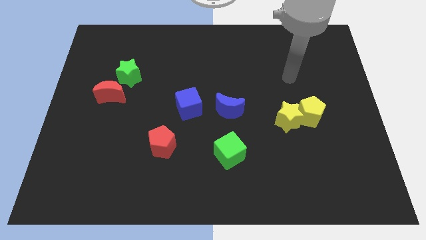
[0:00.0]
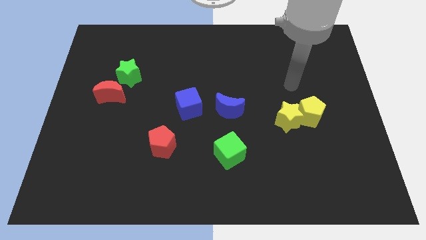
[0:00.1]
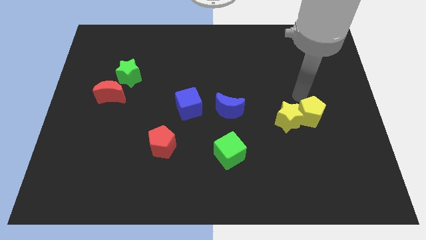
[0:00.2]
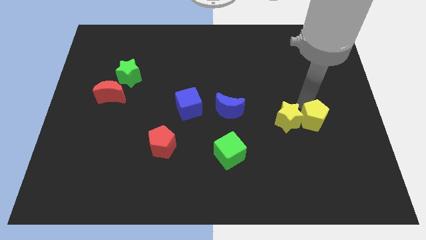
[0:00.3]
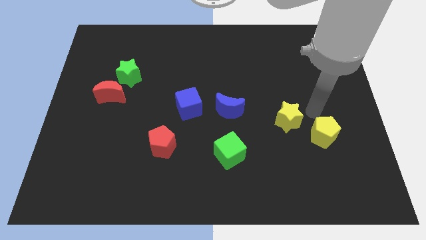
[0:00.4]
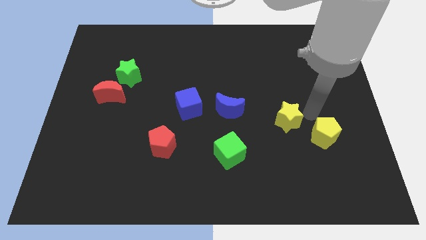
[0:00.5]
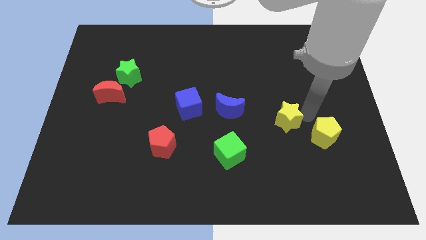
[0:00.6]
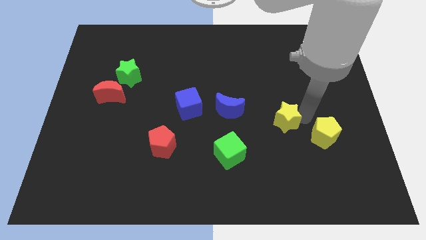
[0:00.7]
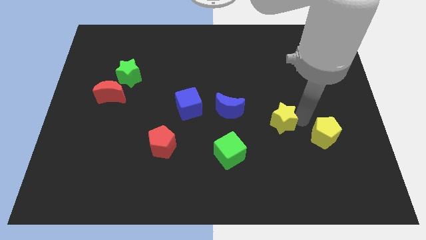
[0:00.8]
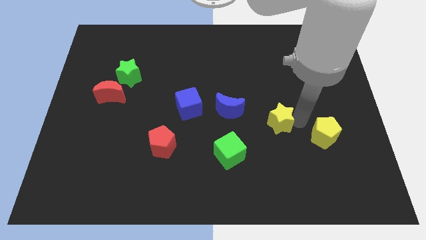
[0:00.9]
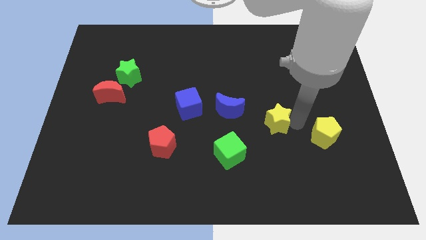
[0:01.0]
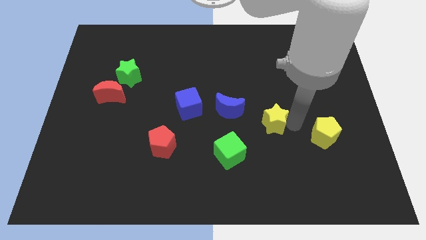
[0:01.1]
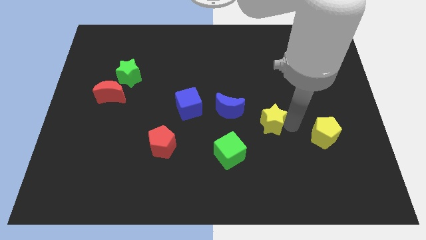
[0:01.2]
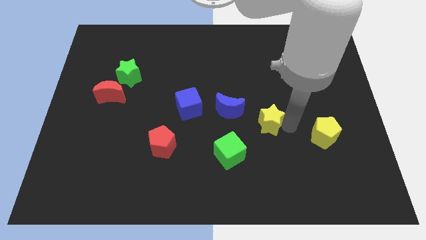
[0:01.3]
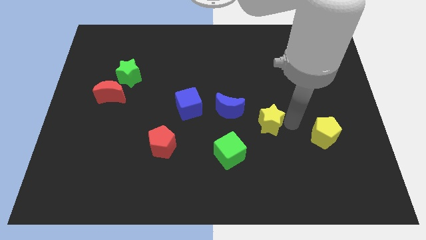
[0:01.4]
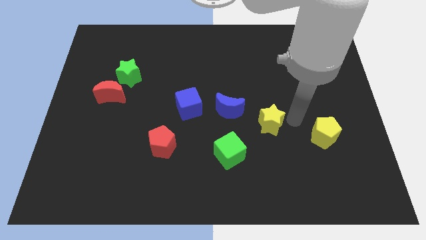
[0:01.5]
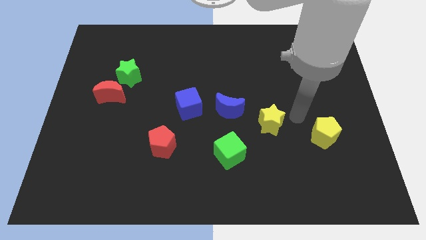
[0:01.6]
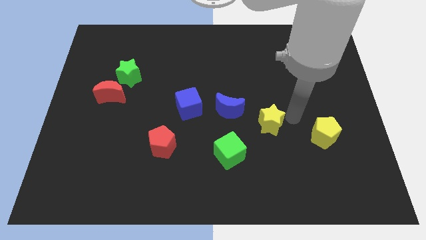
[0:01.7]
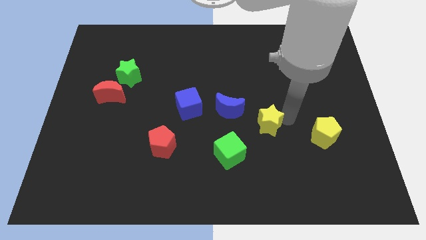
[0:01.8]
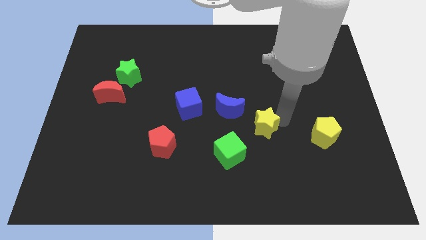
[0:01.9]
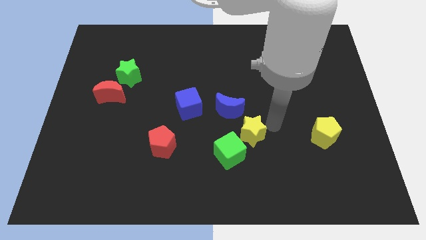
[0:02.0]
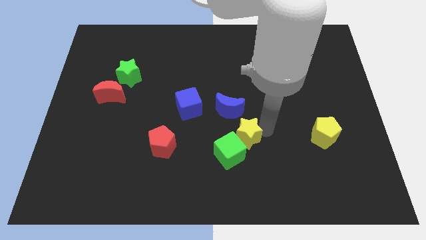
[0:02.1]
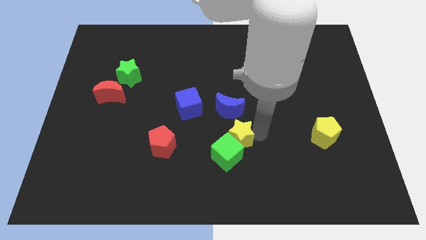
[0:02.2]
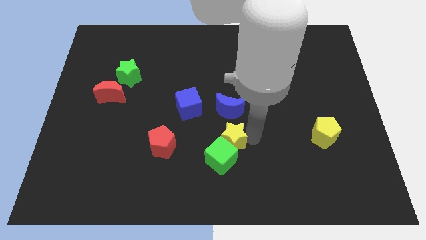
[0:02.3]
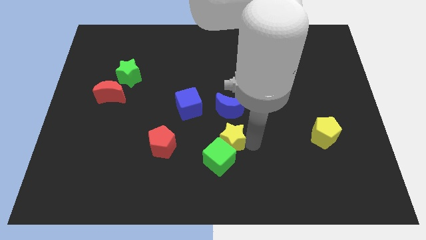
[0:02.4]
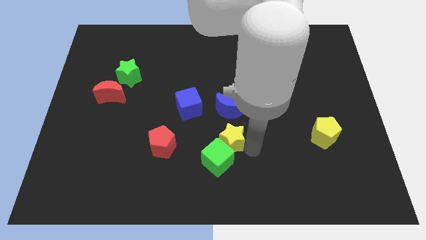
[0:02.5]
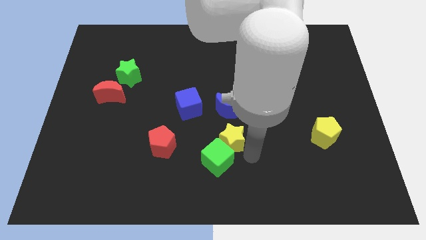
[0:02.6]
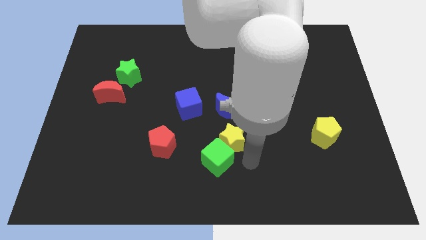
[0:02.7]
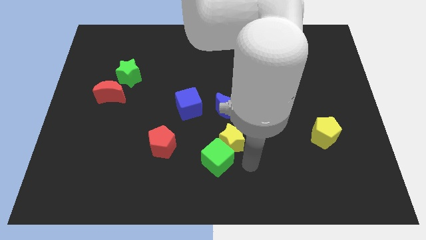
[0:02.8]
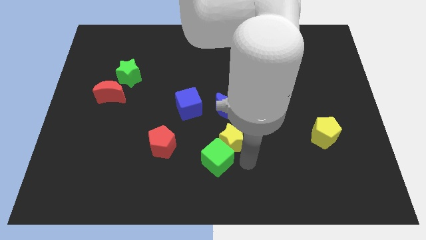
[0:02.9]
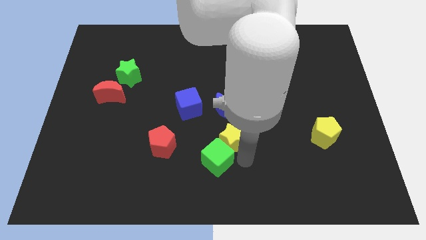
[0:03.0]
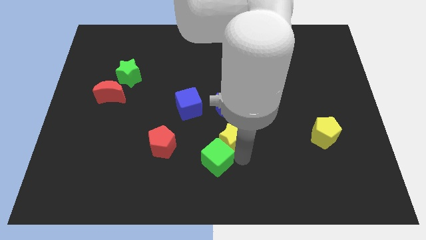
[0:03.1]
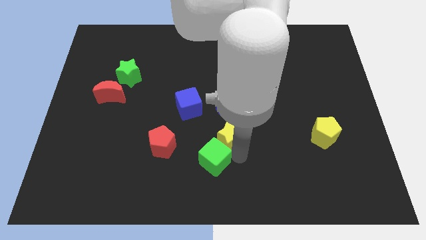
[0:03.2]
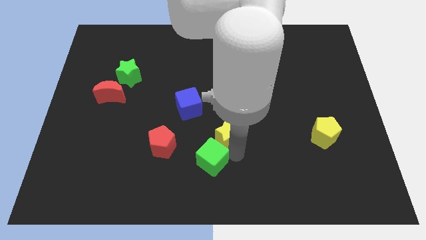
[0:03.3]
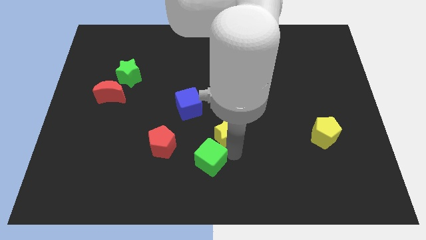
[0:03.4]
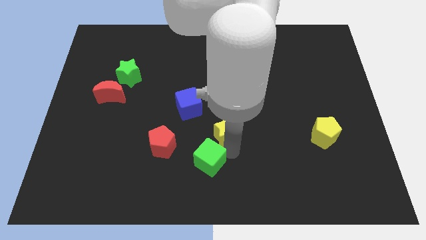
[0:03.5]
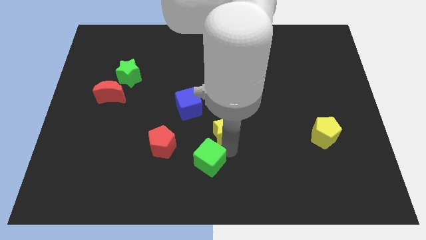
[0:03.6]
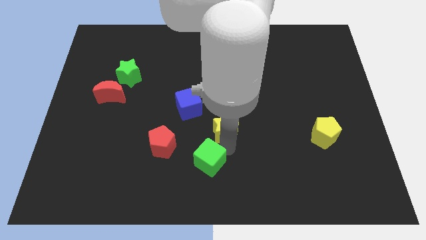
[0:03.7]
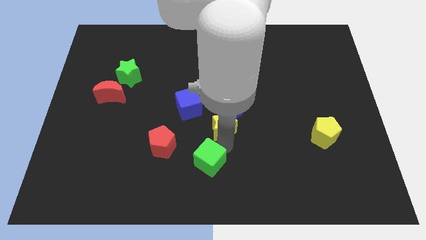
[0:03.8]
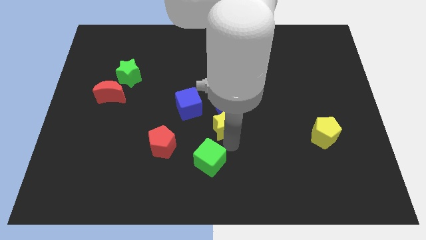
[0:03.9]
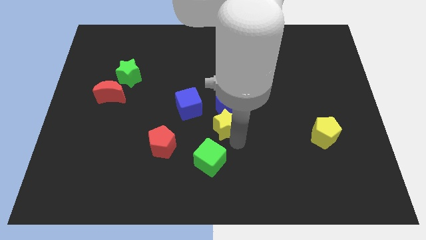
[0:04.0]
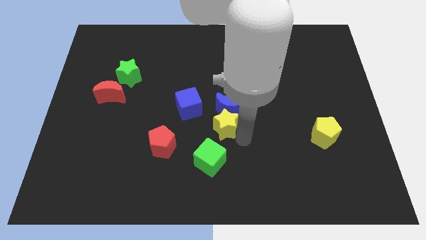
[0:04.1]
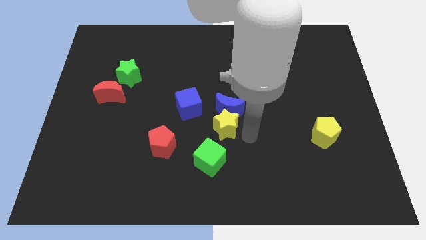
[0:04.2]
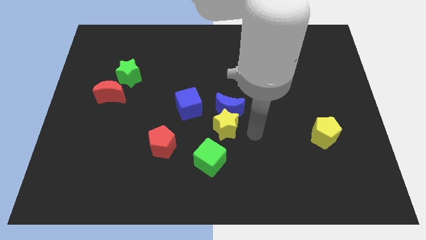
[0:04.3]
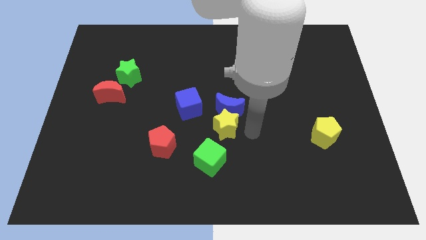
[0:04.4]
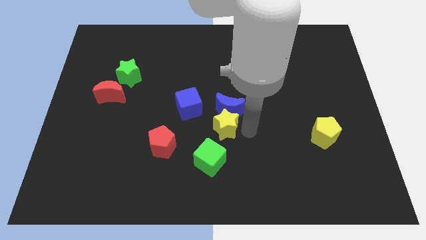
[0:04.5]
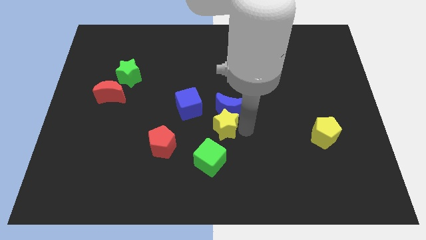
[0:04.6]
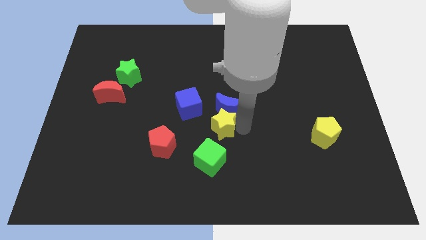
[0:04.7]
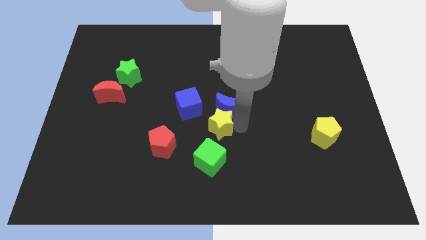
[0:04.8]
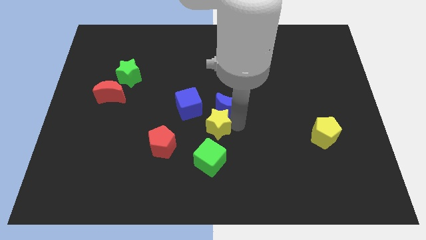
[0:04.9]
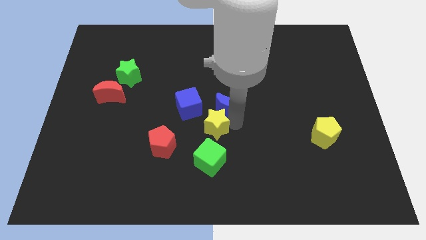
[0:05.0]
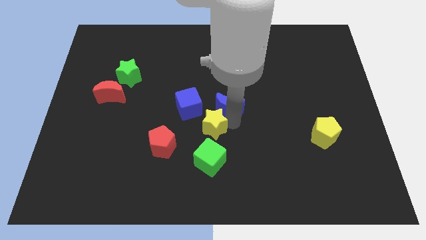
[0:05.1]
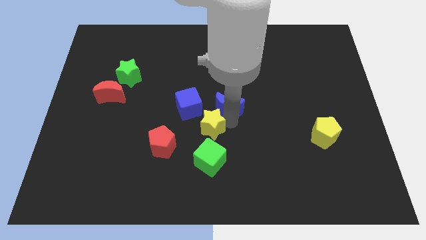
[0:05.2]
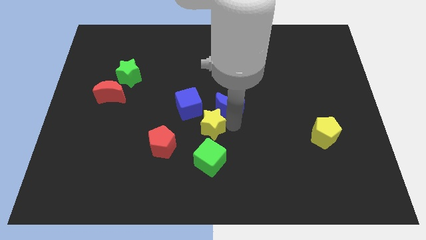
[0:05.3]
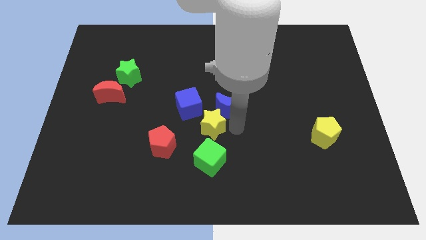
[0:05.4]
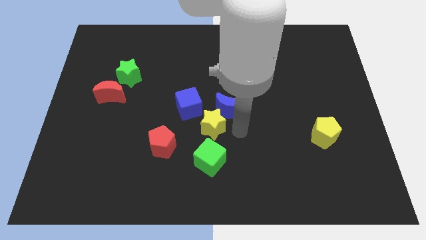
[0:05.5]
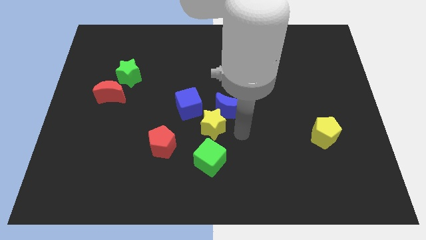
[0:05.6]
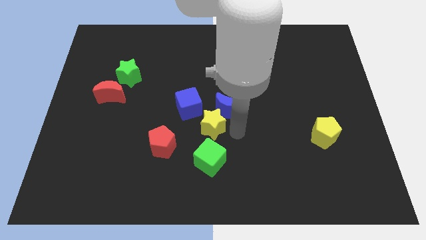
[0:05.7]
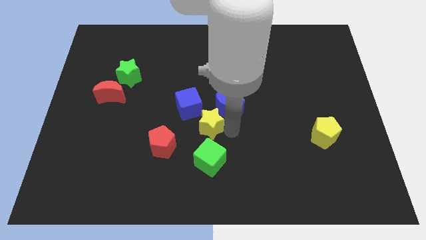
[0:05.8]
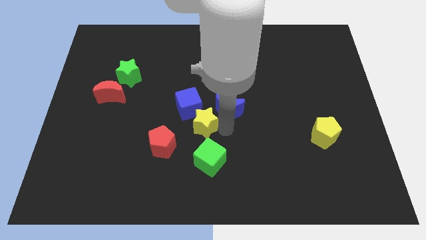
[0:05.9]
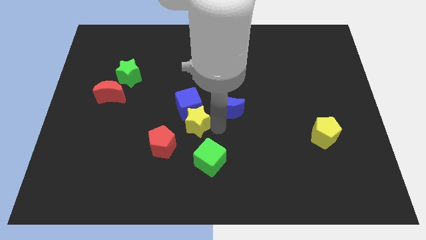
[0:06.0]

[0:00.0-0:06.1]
slide the yellow star to the left

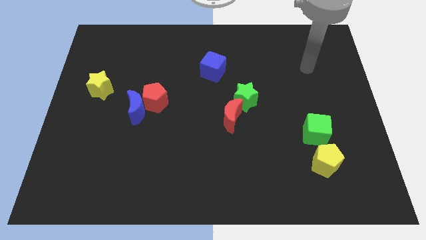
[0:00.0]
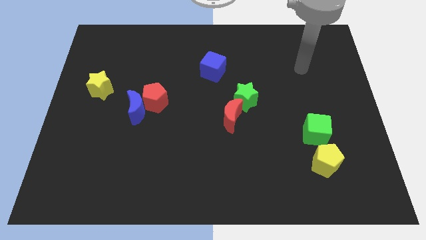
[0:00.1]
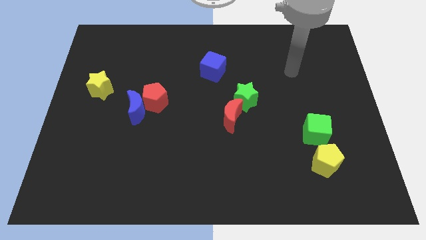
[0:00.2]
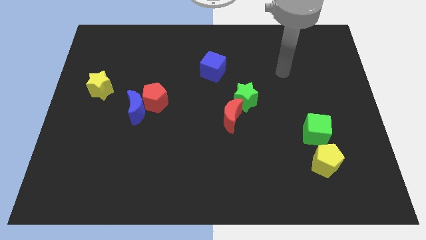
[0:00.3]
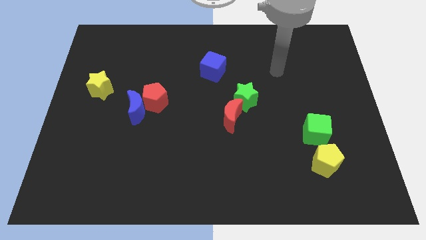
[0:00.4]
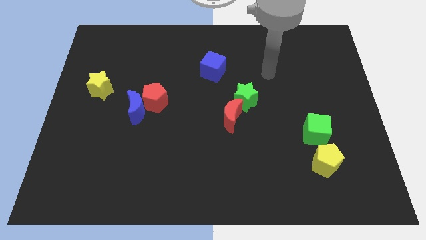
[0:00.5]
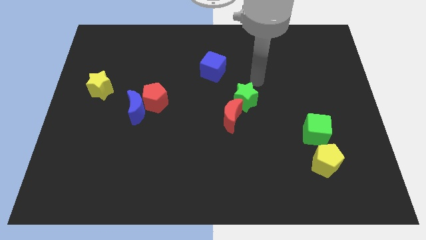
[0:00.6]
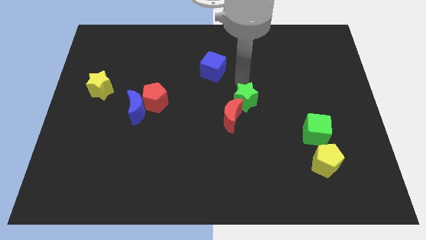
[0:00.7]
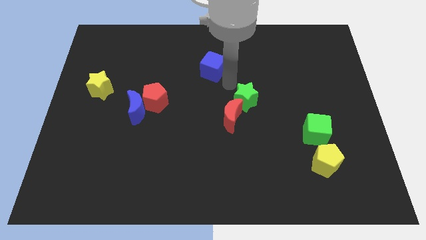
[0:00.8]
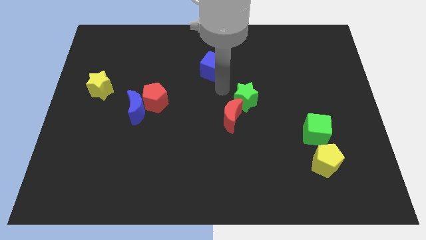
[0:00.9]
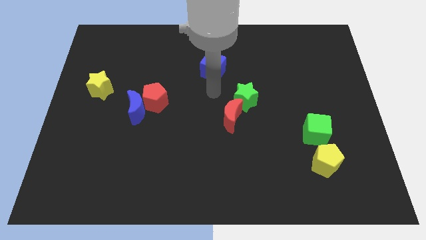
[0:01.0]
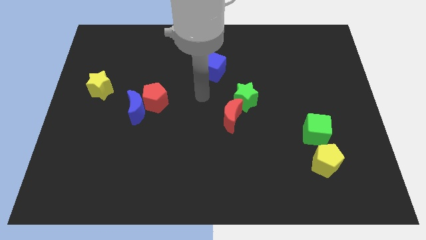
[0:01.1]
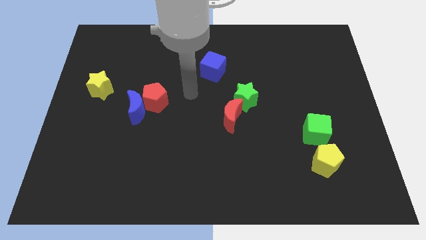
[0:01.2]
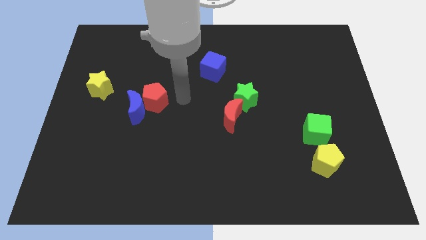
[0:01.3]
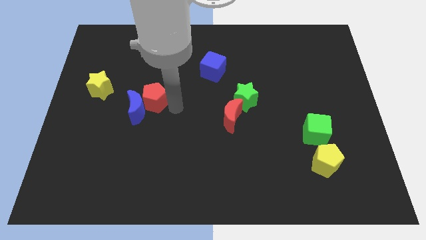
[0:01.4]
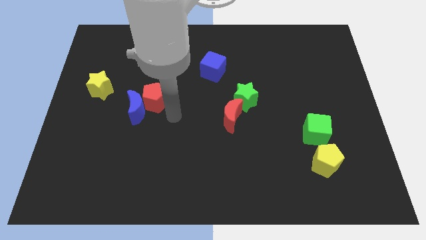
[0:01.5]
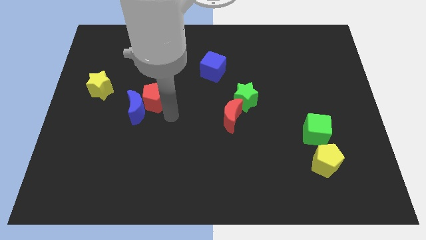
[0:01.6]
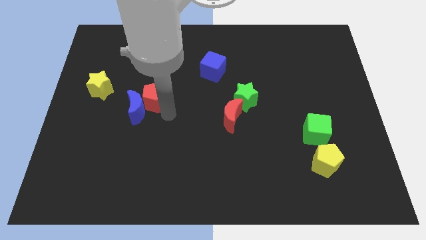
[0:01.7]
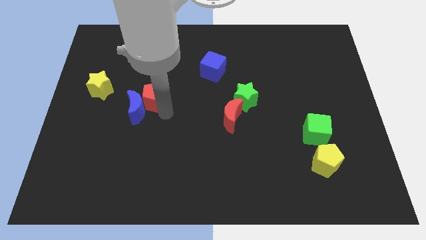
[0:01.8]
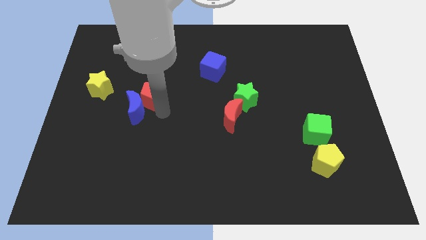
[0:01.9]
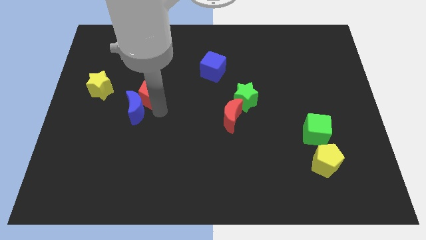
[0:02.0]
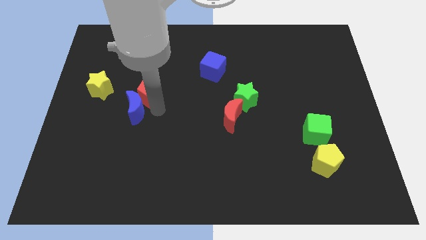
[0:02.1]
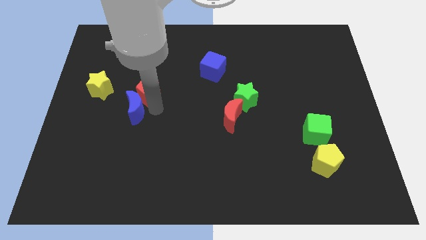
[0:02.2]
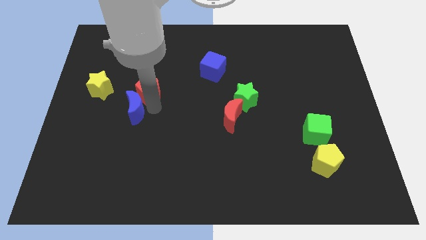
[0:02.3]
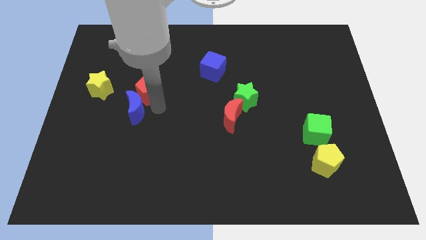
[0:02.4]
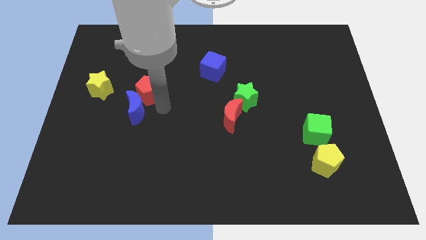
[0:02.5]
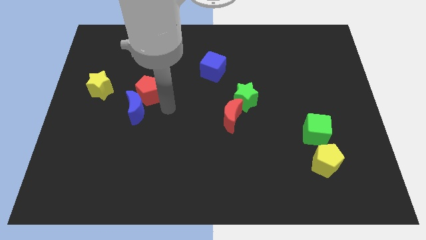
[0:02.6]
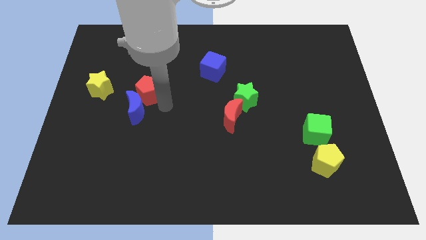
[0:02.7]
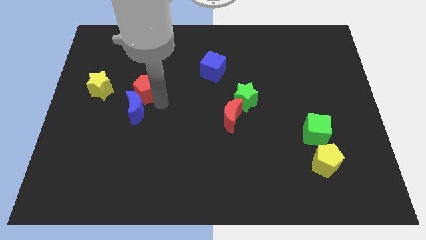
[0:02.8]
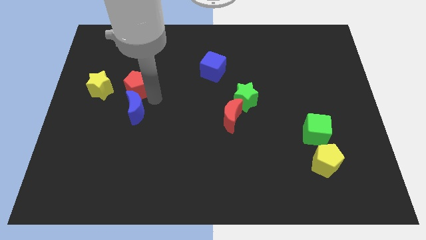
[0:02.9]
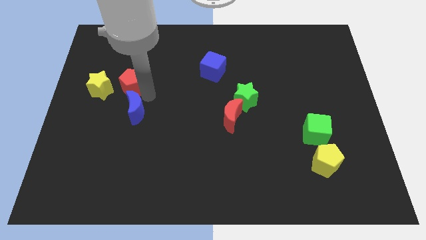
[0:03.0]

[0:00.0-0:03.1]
move the red pentagon somewhat up and to the left diagonally
